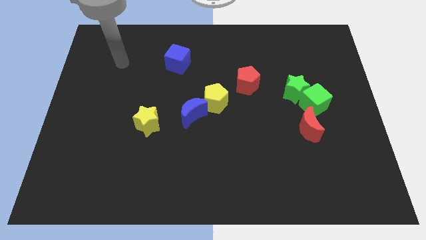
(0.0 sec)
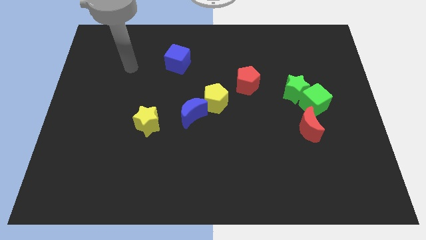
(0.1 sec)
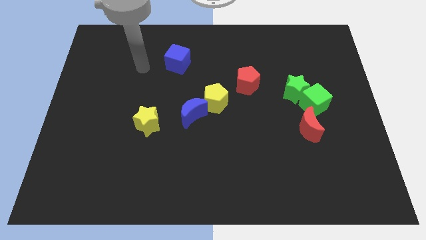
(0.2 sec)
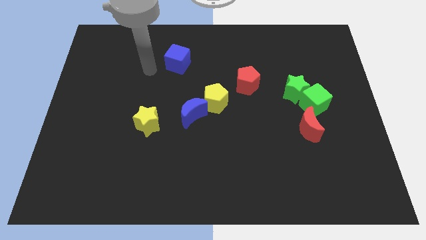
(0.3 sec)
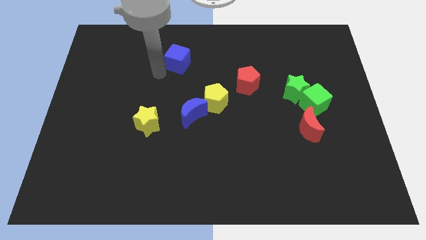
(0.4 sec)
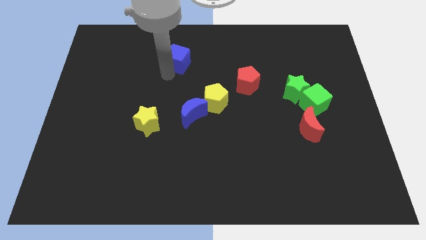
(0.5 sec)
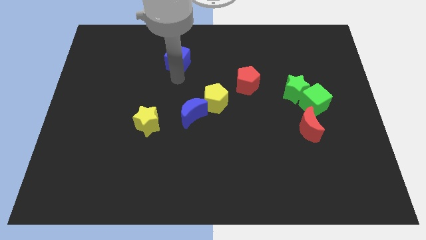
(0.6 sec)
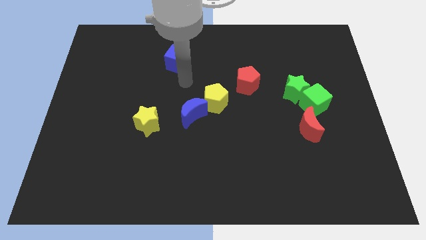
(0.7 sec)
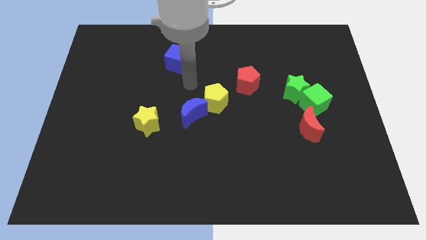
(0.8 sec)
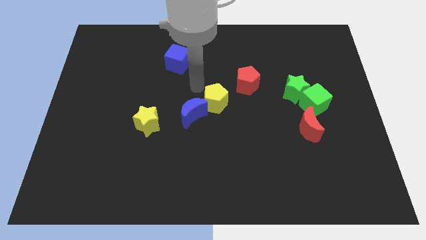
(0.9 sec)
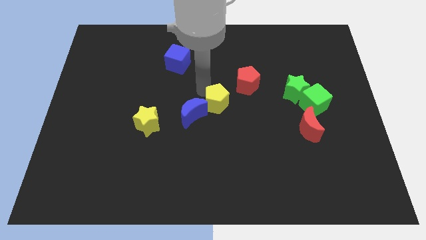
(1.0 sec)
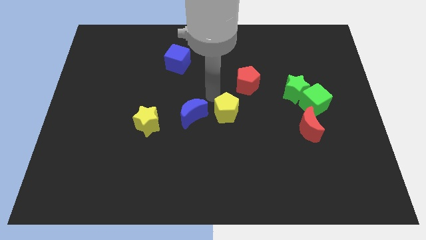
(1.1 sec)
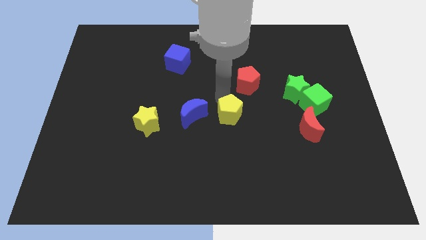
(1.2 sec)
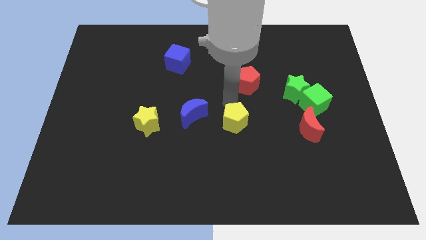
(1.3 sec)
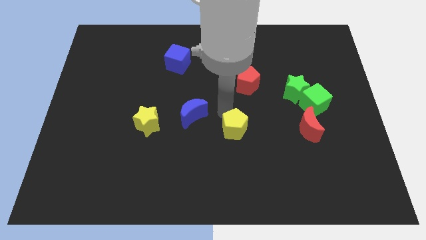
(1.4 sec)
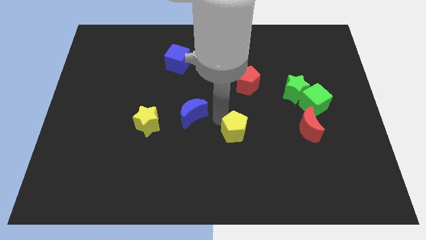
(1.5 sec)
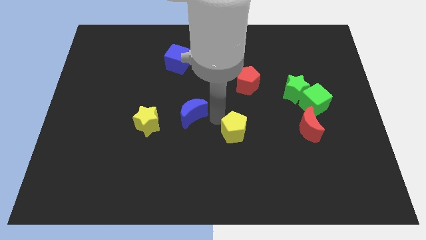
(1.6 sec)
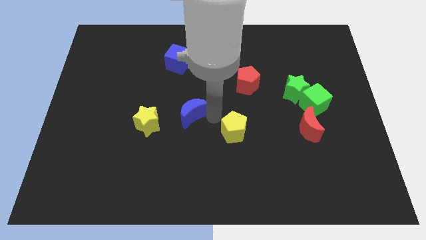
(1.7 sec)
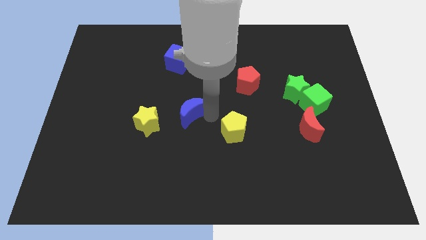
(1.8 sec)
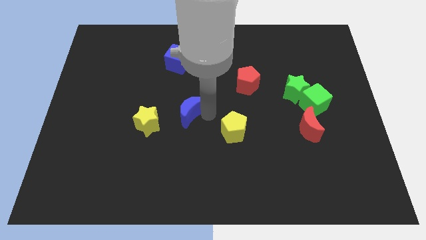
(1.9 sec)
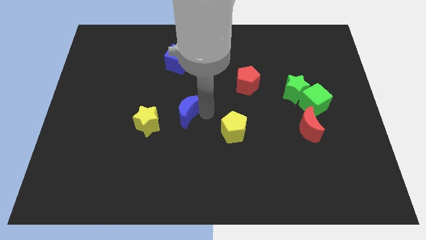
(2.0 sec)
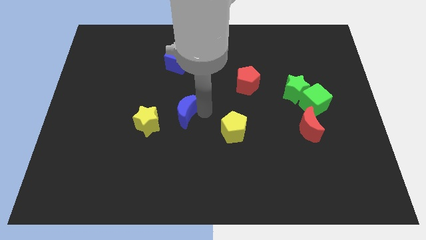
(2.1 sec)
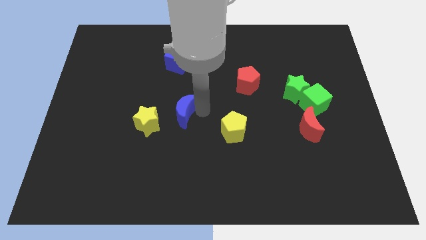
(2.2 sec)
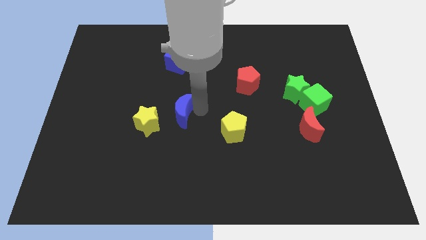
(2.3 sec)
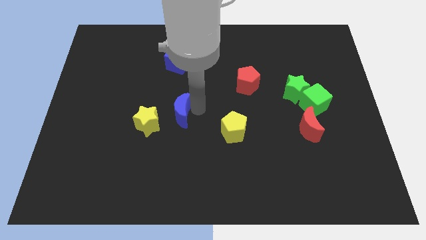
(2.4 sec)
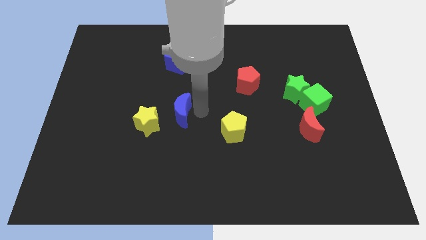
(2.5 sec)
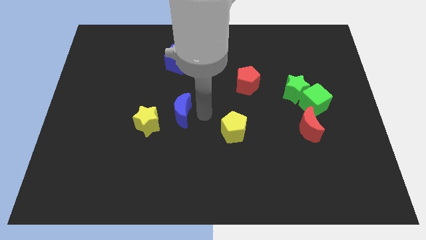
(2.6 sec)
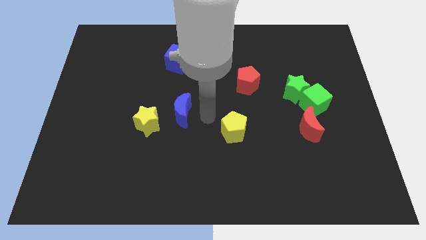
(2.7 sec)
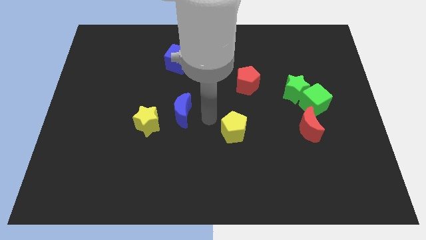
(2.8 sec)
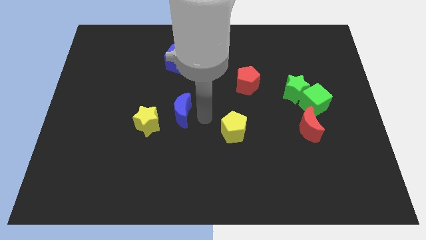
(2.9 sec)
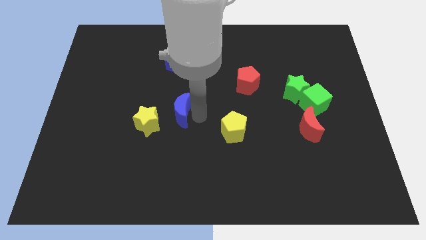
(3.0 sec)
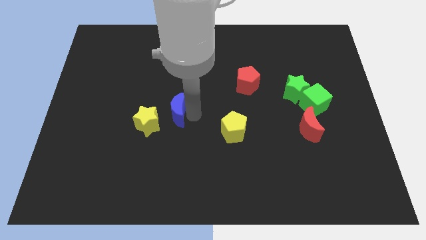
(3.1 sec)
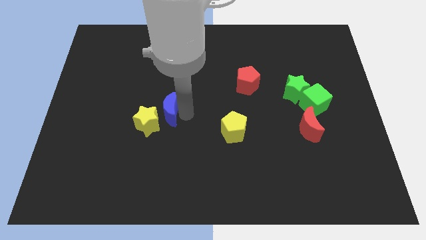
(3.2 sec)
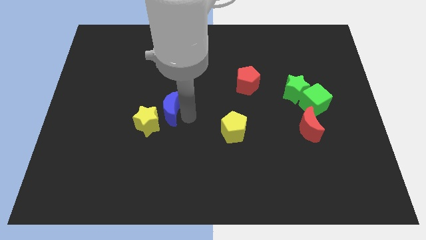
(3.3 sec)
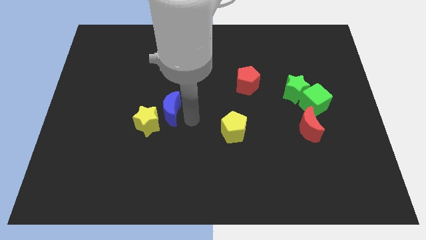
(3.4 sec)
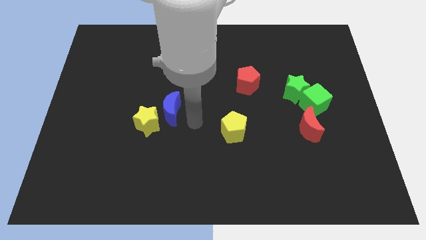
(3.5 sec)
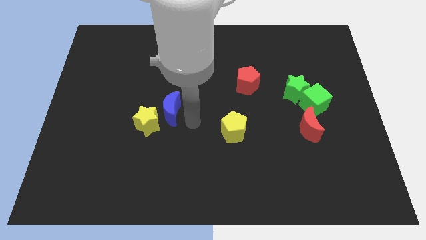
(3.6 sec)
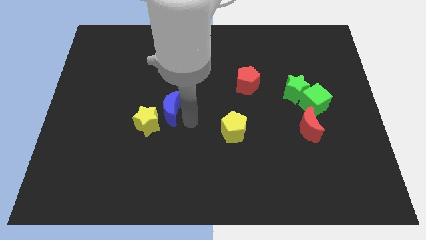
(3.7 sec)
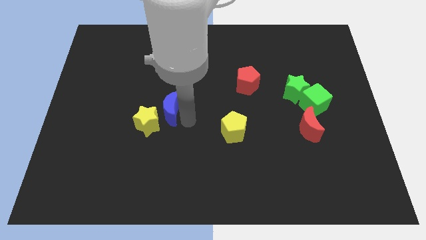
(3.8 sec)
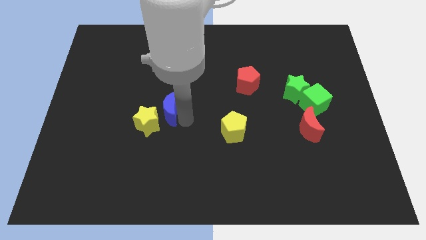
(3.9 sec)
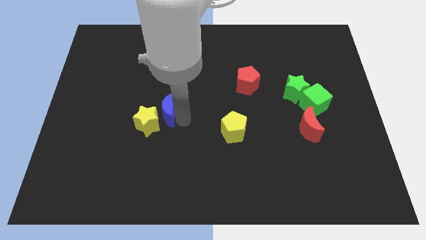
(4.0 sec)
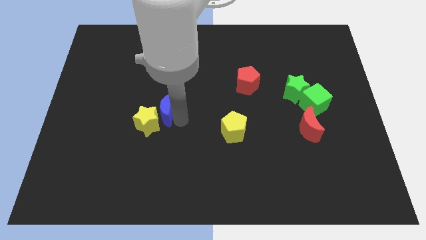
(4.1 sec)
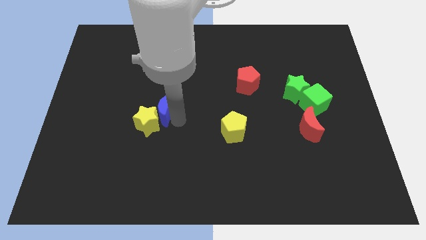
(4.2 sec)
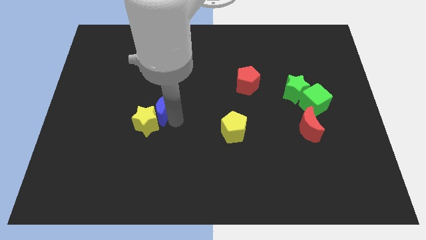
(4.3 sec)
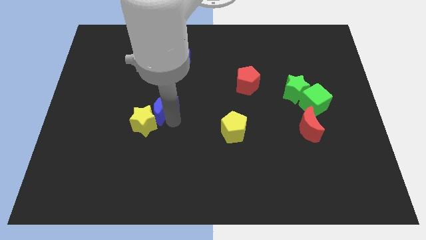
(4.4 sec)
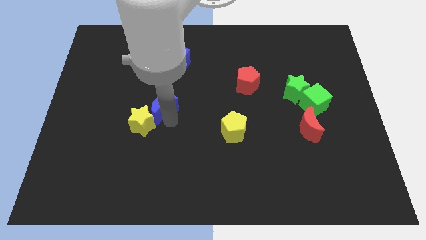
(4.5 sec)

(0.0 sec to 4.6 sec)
slightly slide the blue moon left

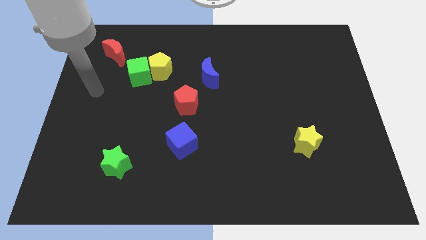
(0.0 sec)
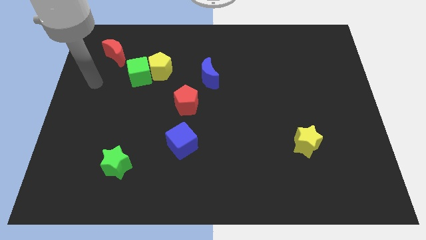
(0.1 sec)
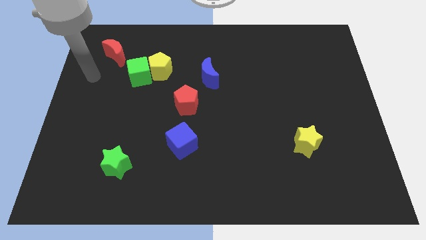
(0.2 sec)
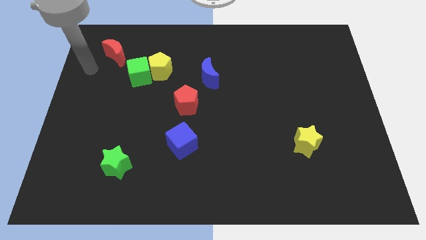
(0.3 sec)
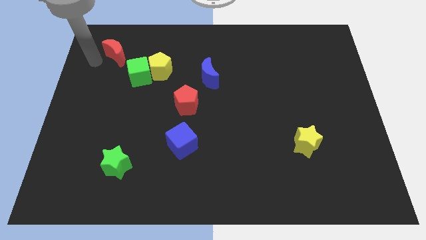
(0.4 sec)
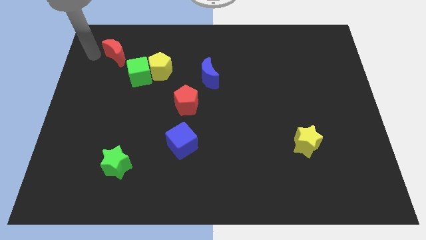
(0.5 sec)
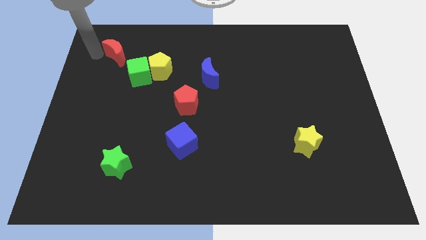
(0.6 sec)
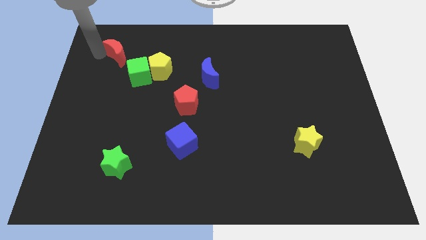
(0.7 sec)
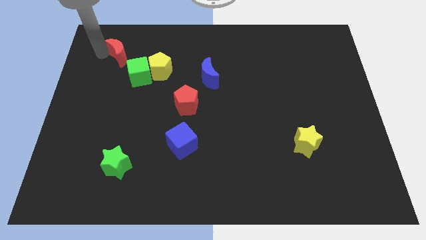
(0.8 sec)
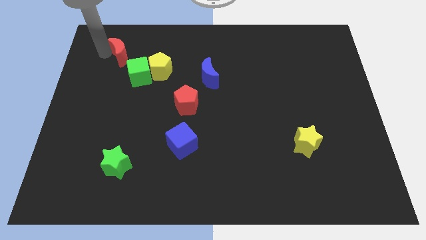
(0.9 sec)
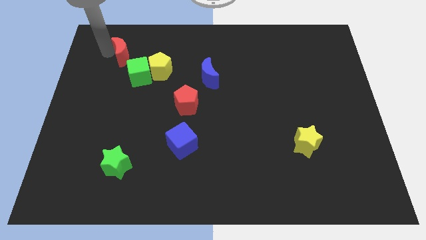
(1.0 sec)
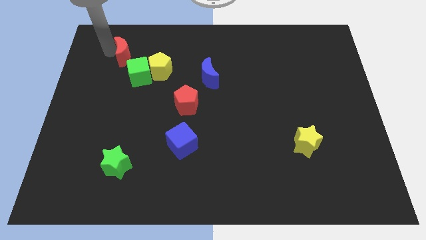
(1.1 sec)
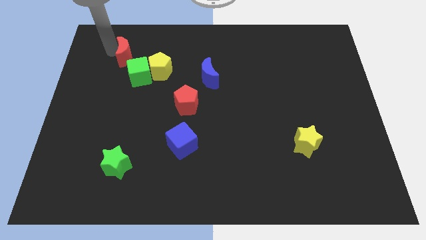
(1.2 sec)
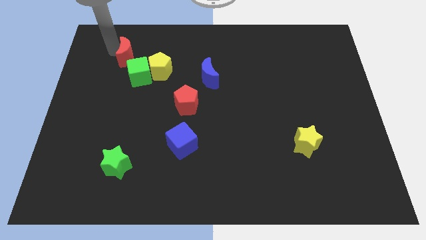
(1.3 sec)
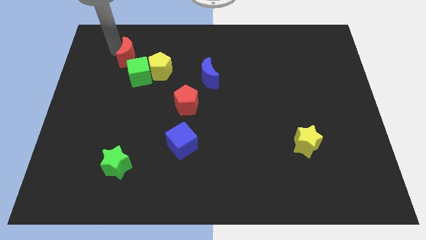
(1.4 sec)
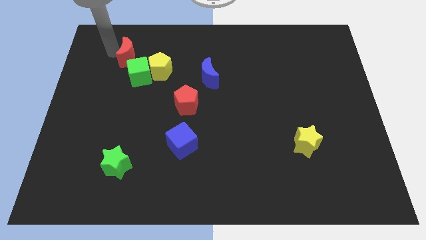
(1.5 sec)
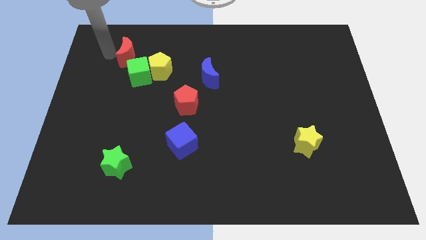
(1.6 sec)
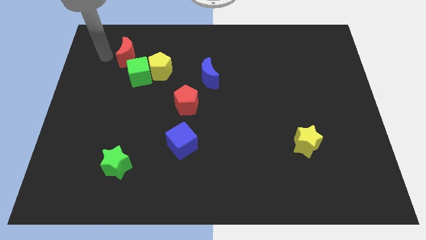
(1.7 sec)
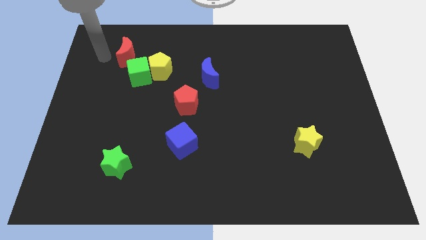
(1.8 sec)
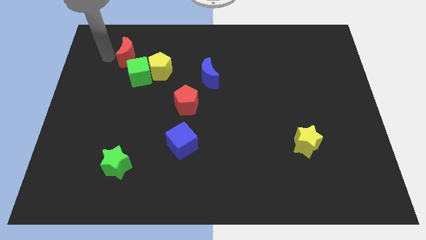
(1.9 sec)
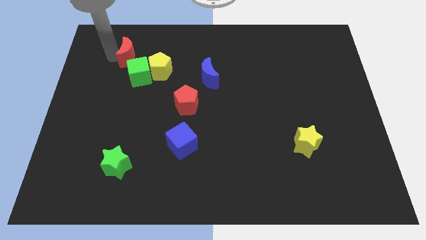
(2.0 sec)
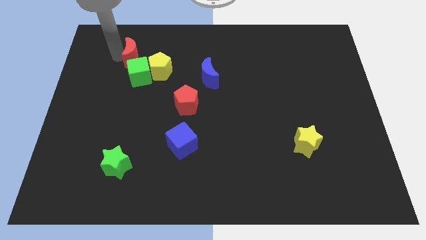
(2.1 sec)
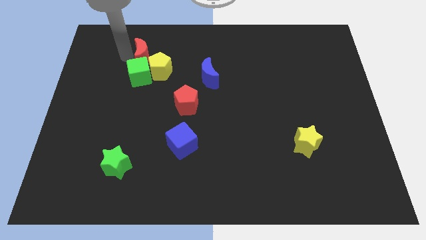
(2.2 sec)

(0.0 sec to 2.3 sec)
push the red moon somewhat right

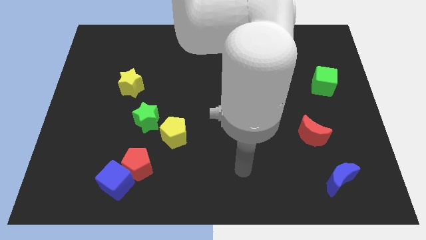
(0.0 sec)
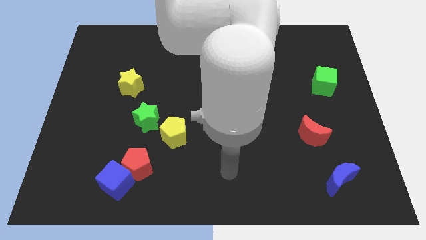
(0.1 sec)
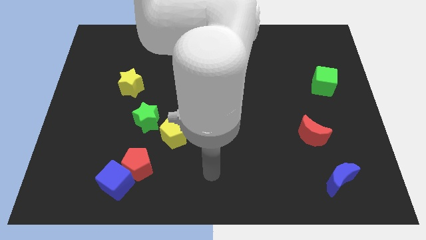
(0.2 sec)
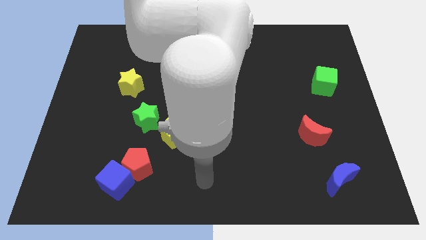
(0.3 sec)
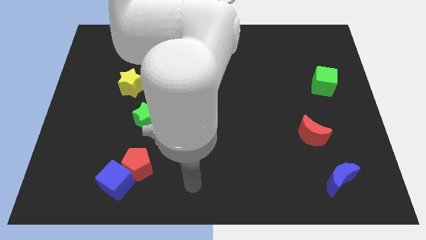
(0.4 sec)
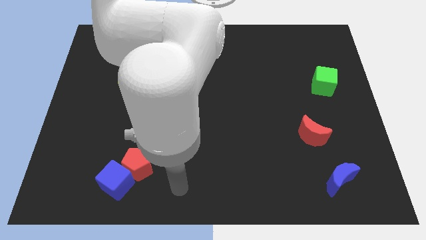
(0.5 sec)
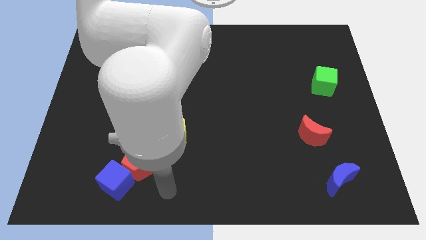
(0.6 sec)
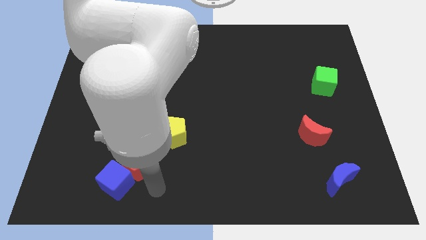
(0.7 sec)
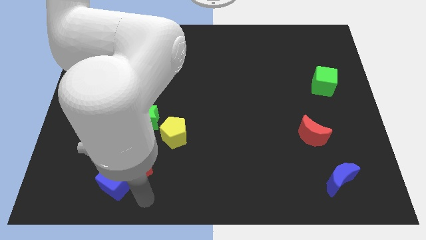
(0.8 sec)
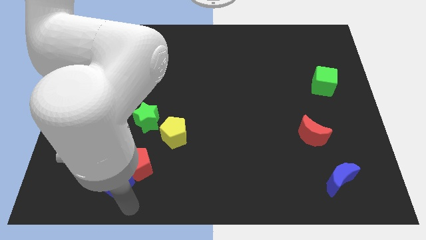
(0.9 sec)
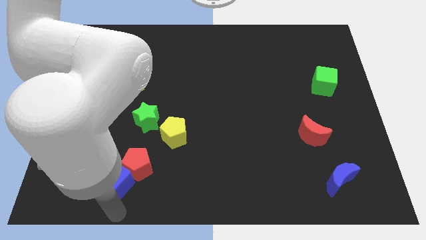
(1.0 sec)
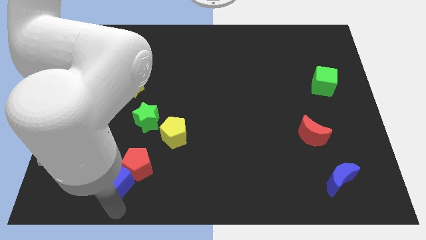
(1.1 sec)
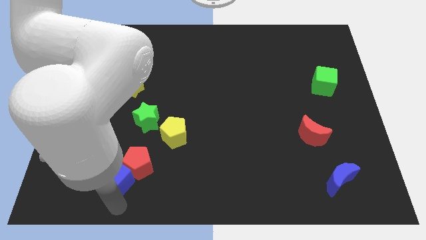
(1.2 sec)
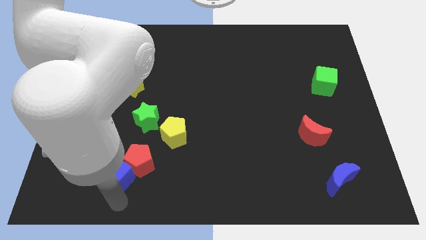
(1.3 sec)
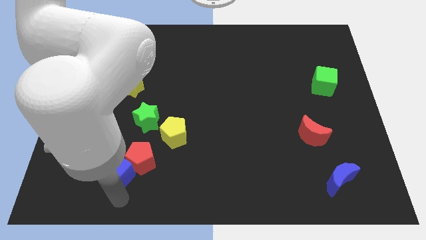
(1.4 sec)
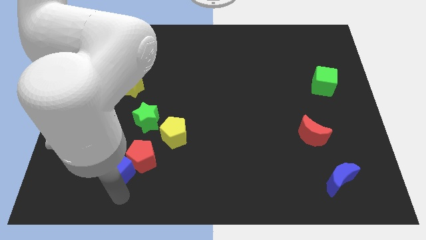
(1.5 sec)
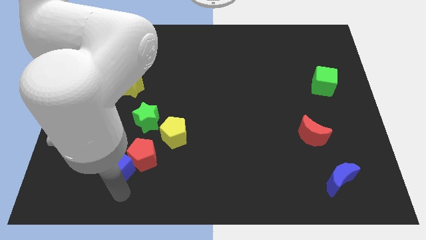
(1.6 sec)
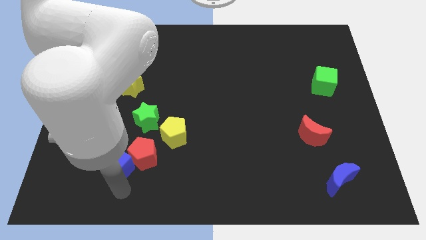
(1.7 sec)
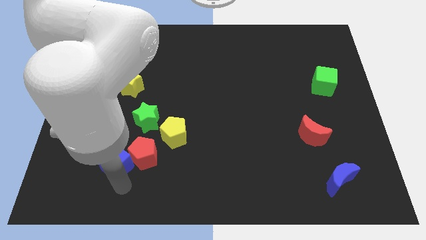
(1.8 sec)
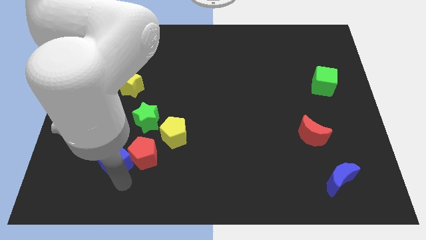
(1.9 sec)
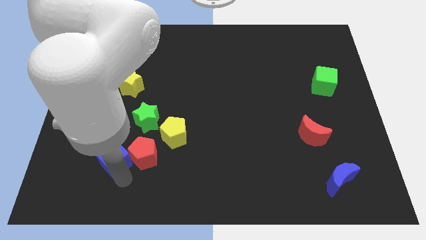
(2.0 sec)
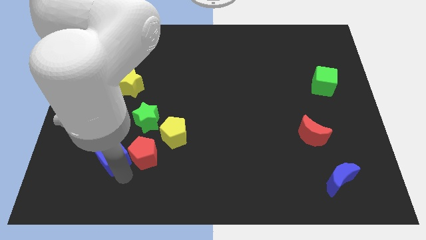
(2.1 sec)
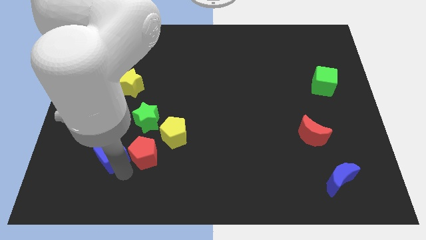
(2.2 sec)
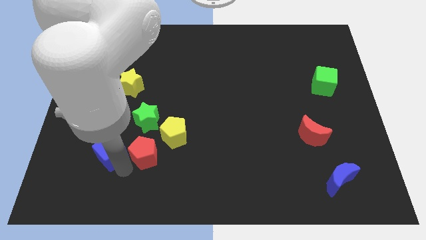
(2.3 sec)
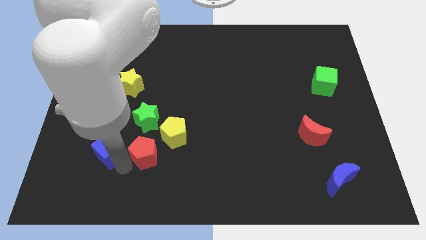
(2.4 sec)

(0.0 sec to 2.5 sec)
slightly slide the blue cube upwards
